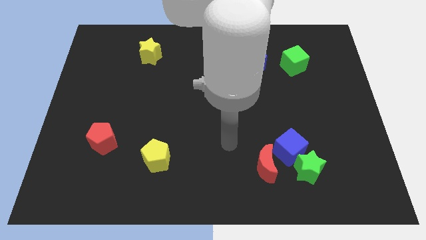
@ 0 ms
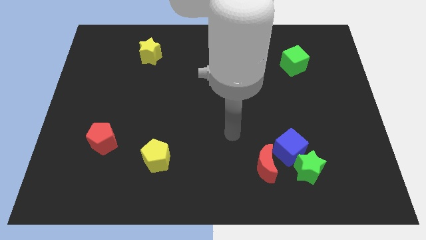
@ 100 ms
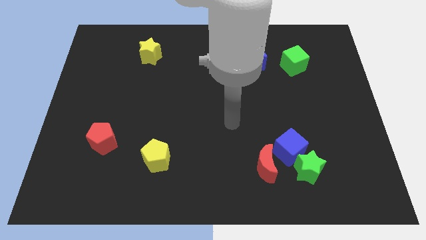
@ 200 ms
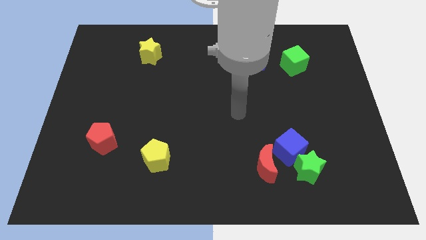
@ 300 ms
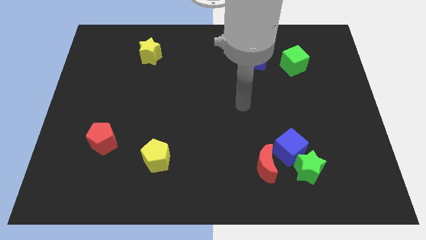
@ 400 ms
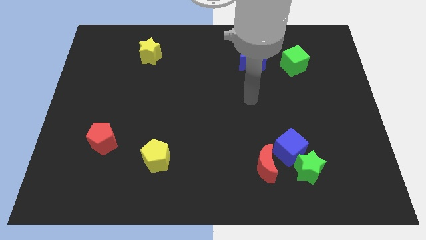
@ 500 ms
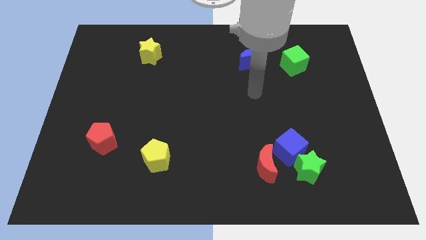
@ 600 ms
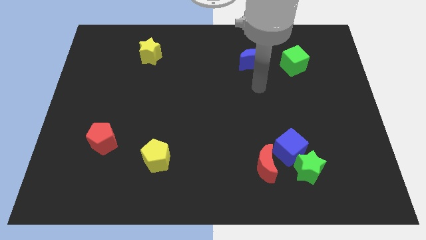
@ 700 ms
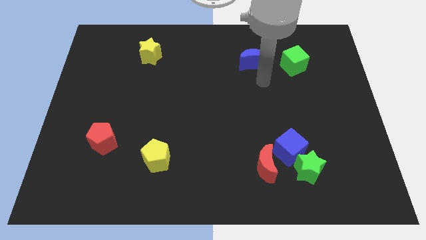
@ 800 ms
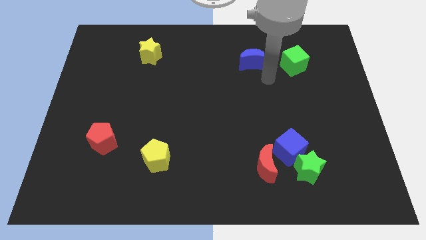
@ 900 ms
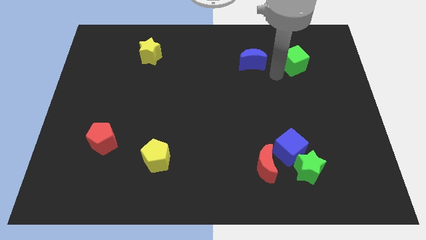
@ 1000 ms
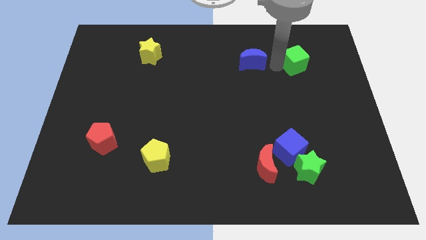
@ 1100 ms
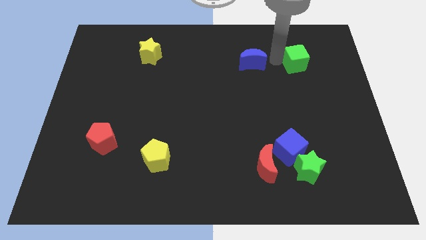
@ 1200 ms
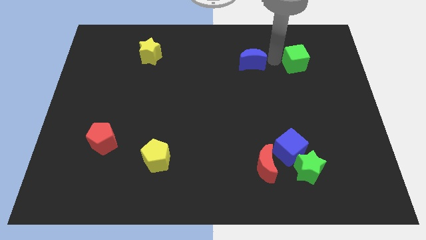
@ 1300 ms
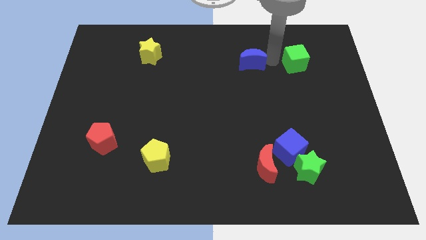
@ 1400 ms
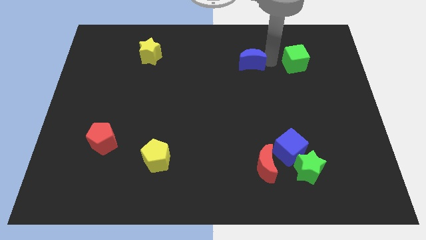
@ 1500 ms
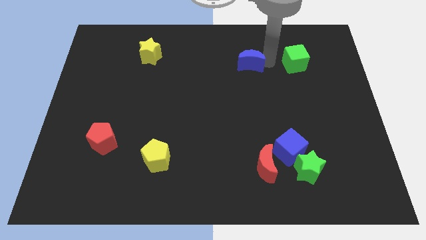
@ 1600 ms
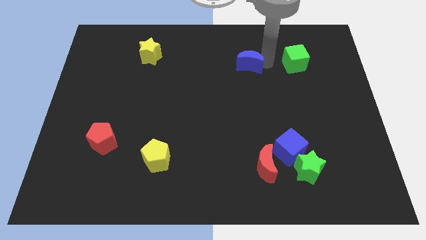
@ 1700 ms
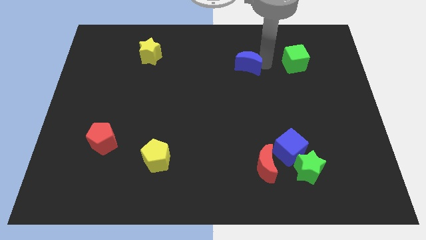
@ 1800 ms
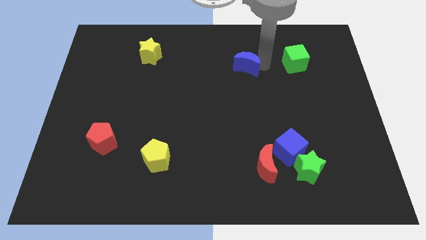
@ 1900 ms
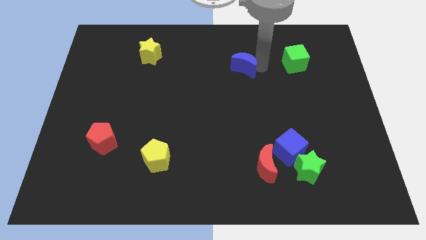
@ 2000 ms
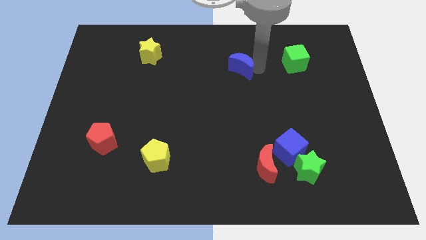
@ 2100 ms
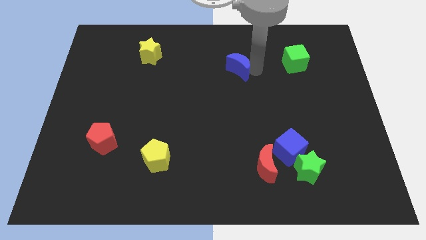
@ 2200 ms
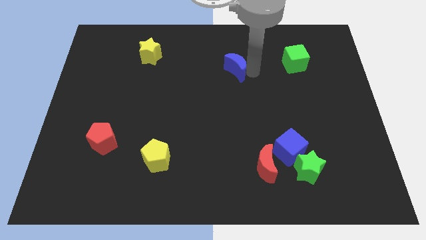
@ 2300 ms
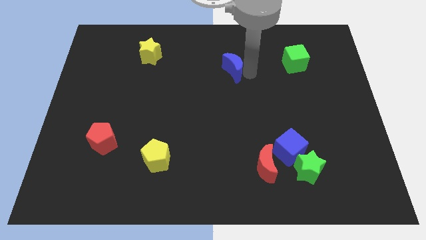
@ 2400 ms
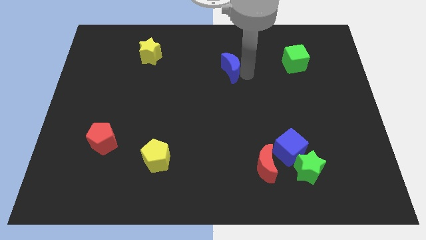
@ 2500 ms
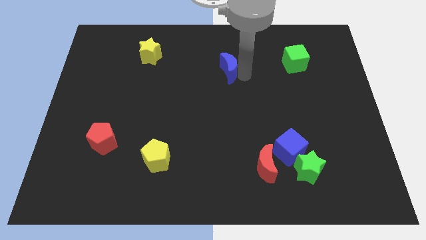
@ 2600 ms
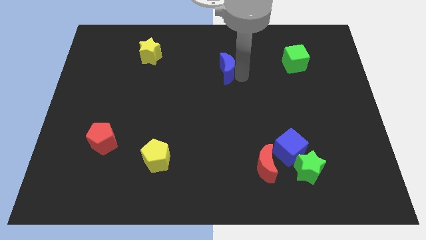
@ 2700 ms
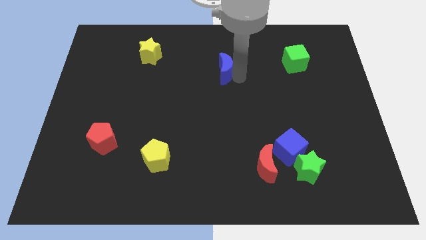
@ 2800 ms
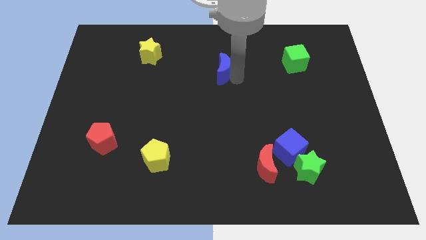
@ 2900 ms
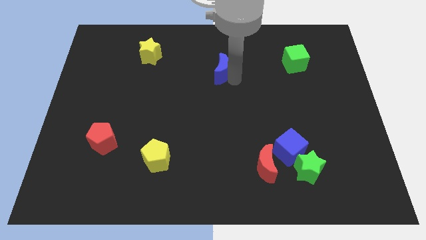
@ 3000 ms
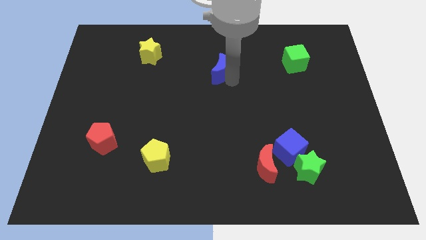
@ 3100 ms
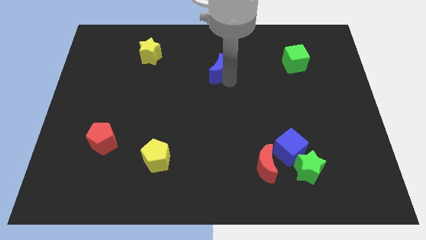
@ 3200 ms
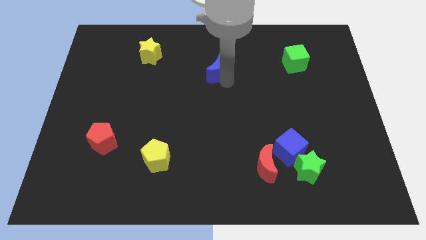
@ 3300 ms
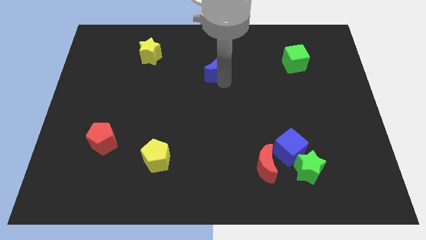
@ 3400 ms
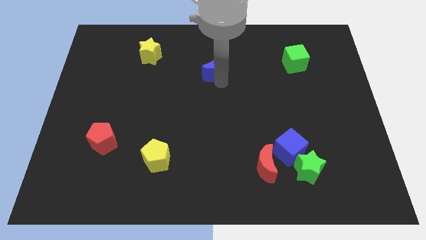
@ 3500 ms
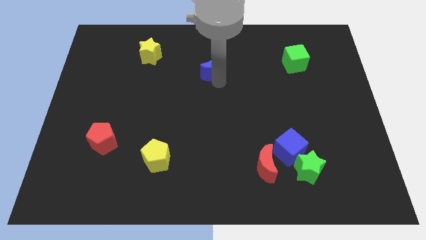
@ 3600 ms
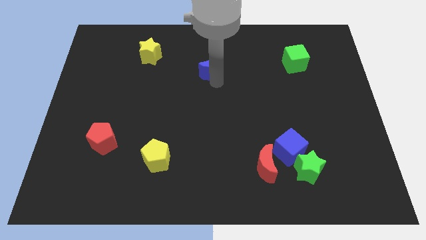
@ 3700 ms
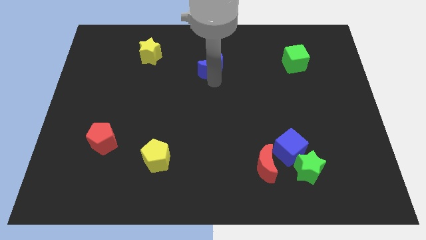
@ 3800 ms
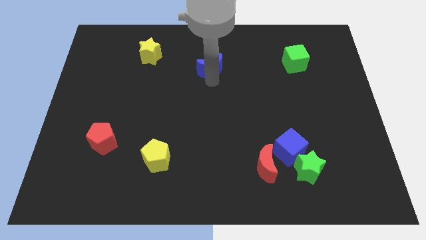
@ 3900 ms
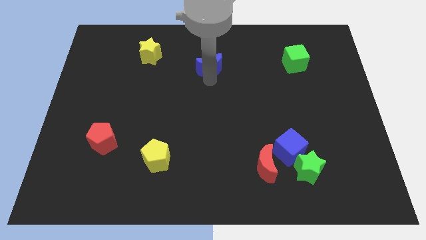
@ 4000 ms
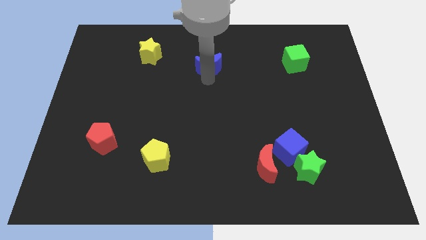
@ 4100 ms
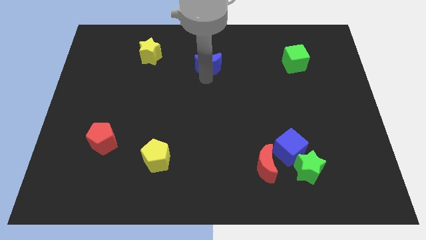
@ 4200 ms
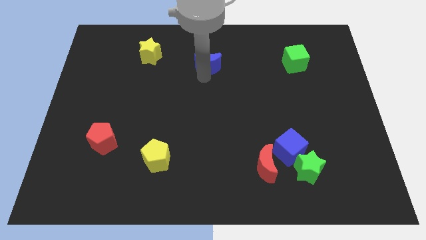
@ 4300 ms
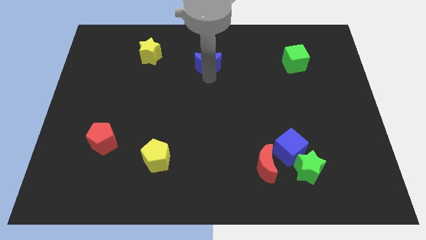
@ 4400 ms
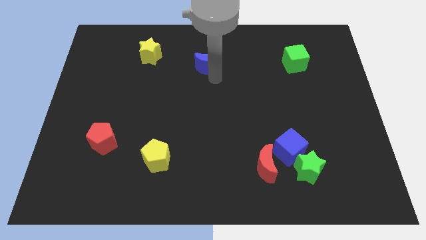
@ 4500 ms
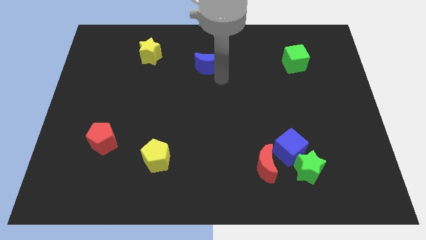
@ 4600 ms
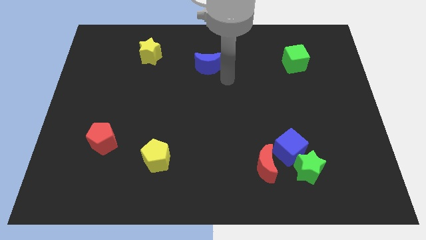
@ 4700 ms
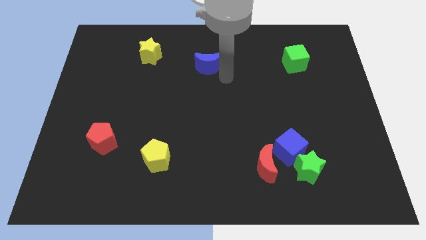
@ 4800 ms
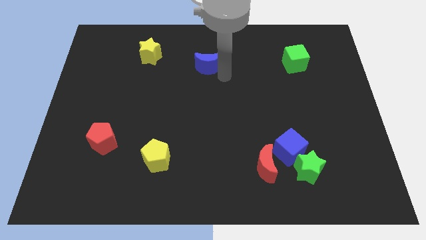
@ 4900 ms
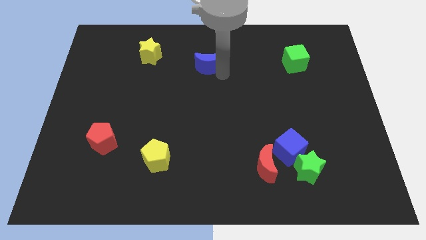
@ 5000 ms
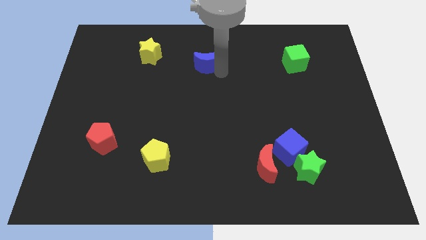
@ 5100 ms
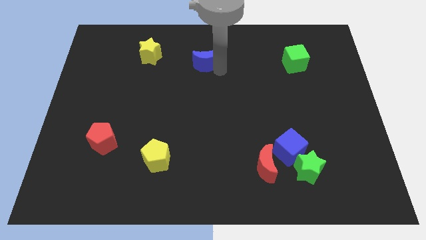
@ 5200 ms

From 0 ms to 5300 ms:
slide the blue moon just right of the yellow star

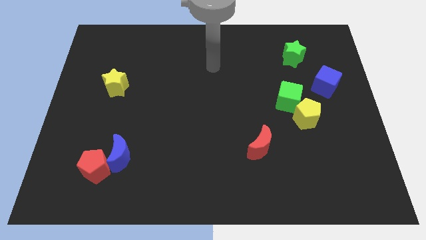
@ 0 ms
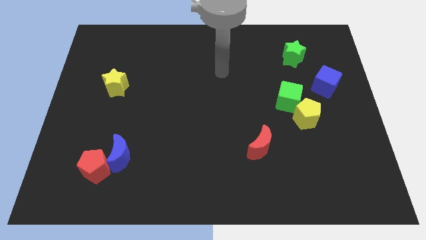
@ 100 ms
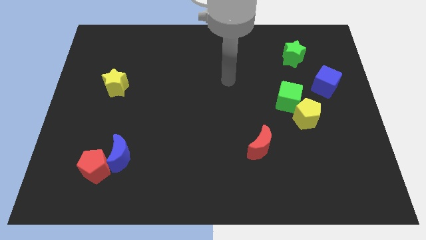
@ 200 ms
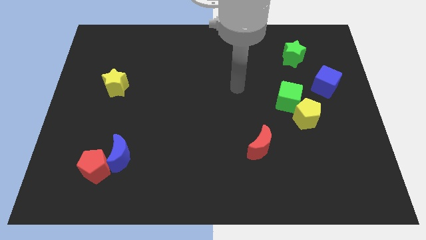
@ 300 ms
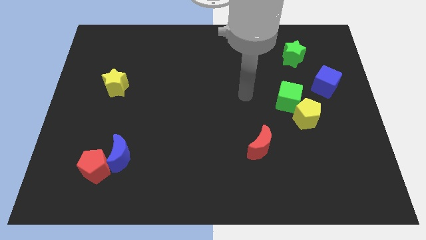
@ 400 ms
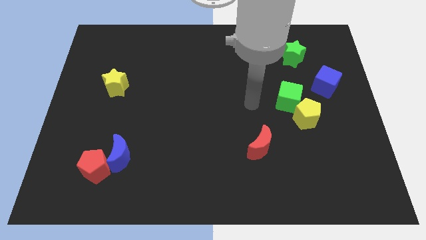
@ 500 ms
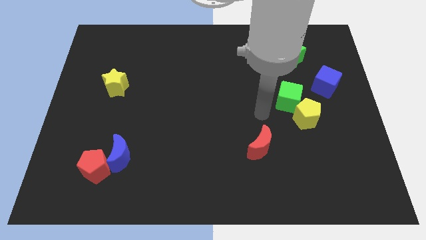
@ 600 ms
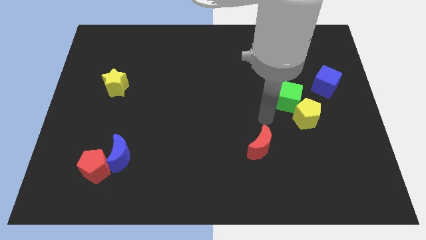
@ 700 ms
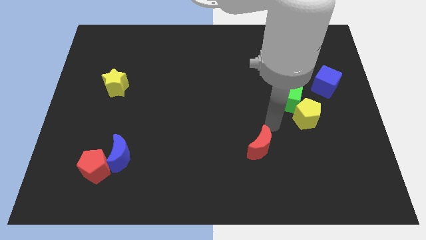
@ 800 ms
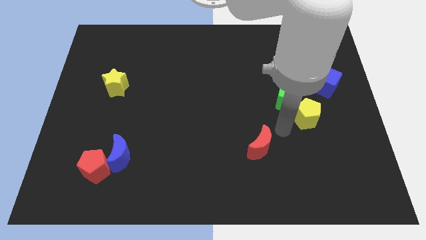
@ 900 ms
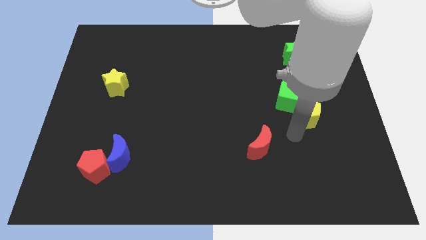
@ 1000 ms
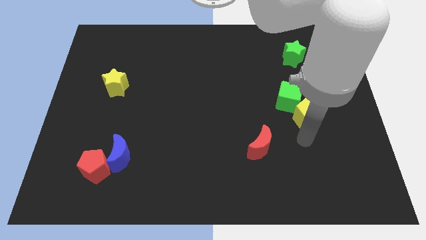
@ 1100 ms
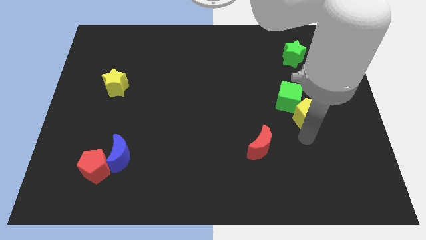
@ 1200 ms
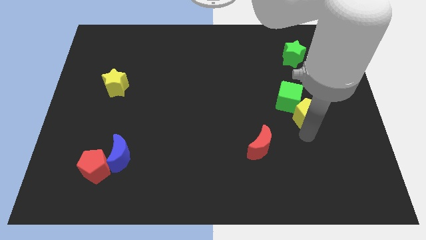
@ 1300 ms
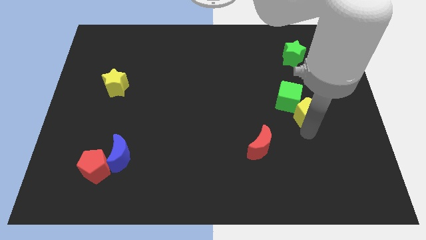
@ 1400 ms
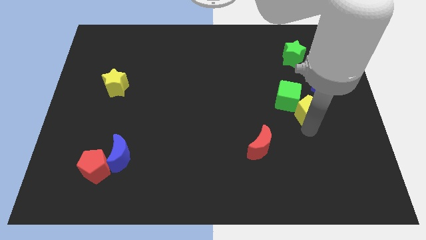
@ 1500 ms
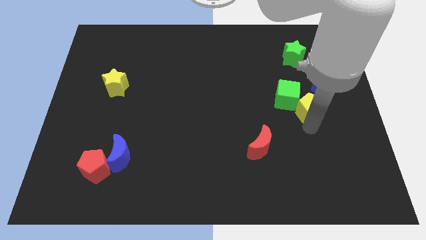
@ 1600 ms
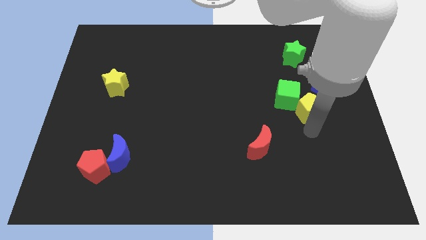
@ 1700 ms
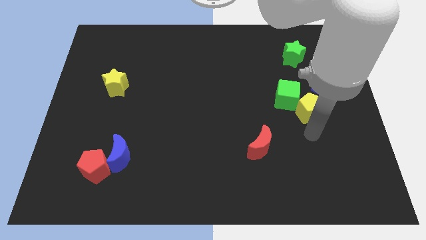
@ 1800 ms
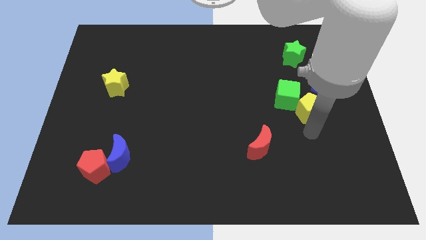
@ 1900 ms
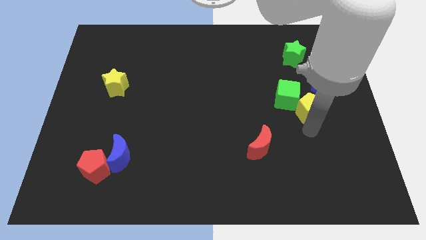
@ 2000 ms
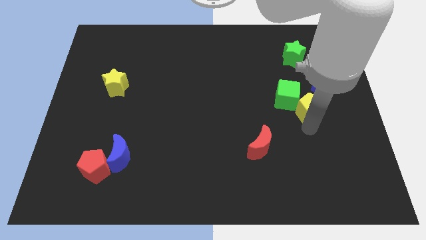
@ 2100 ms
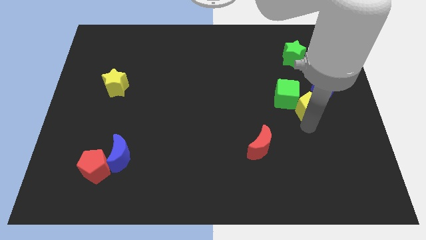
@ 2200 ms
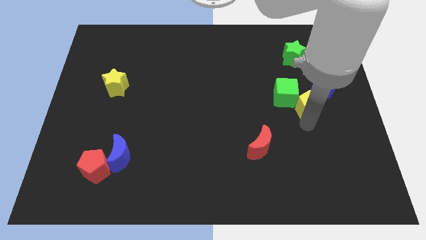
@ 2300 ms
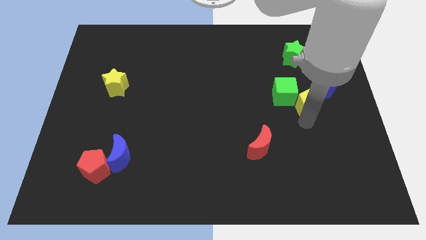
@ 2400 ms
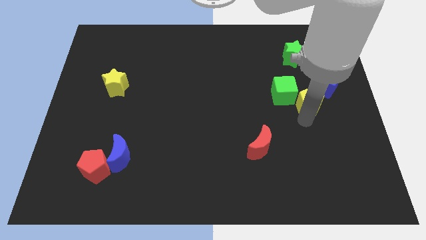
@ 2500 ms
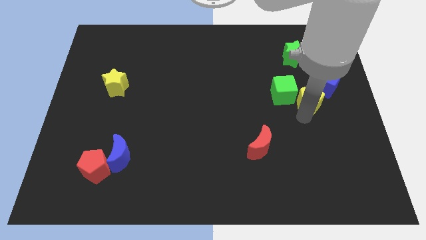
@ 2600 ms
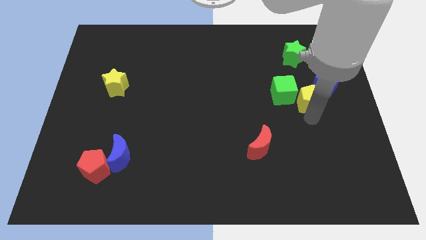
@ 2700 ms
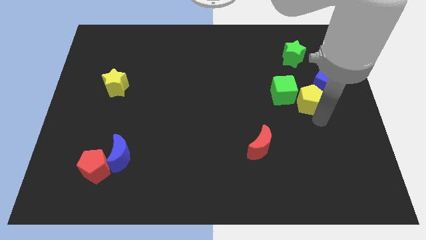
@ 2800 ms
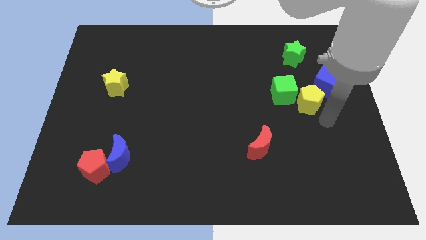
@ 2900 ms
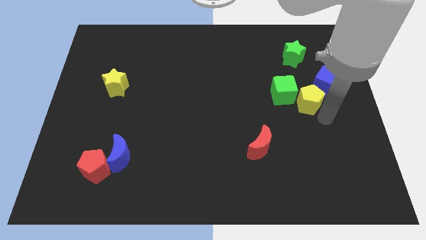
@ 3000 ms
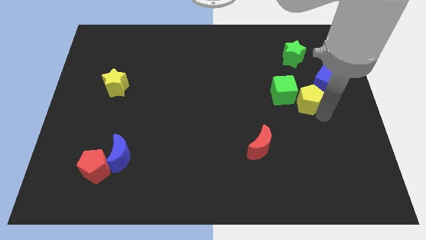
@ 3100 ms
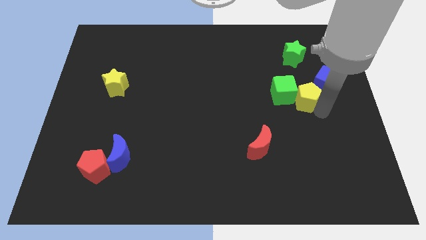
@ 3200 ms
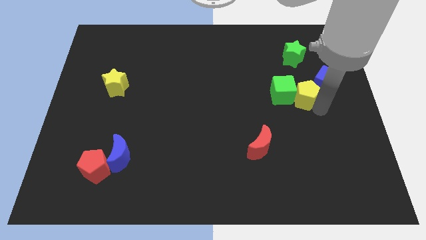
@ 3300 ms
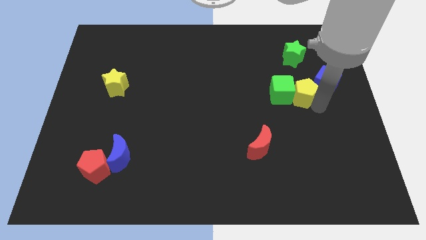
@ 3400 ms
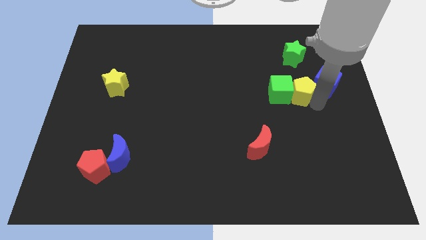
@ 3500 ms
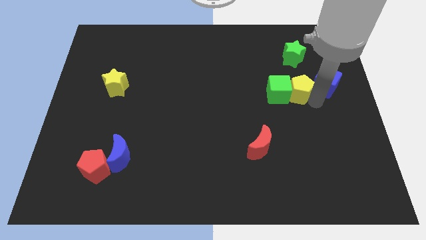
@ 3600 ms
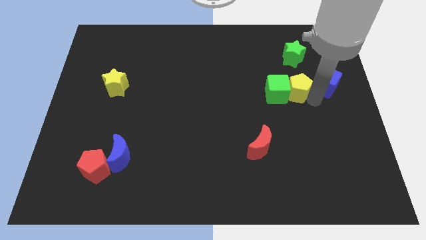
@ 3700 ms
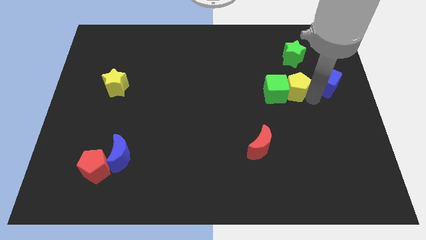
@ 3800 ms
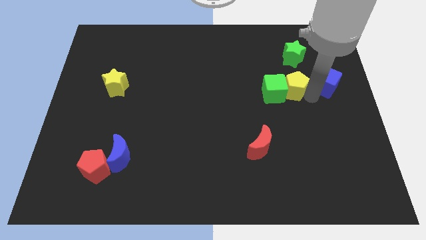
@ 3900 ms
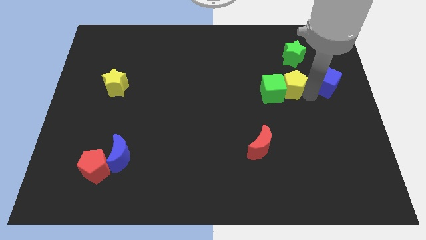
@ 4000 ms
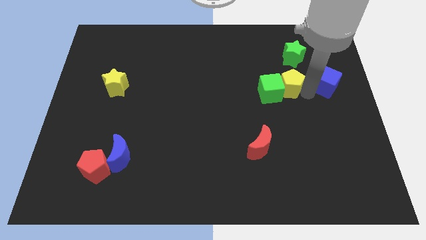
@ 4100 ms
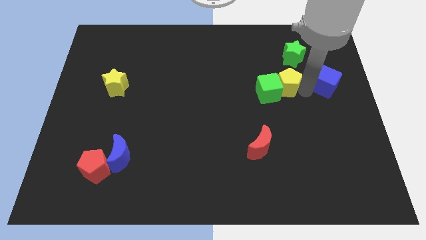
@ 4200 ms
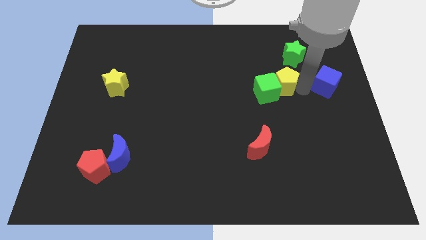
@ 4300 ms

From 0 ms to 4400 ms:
put the yellow pentagon diagonally down and to the left of the green star
